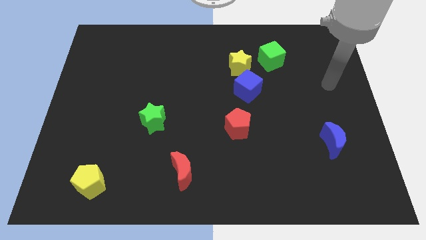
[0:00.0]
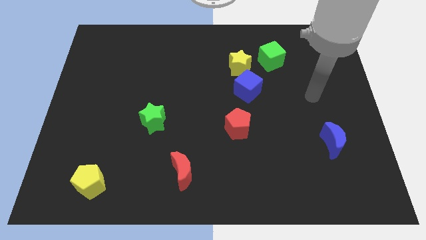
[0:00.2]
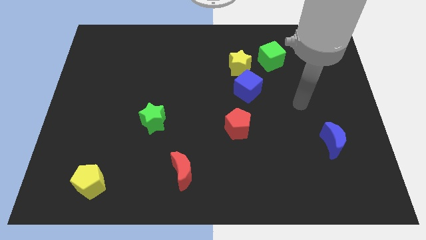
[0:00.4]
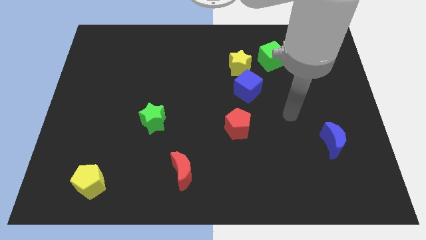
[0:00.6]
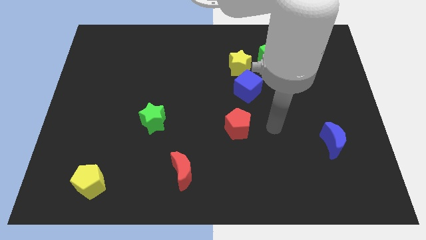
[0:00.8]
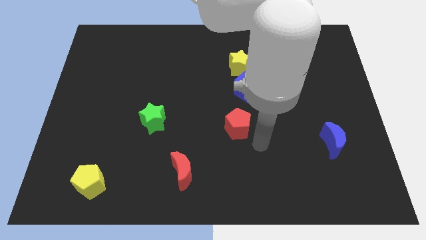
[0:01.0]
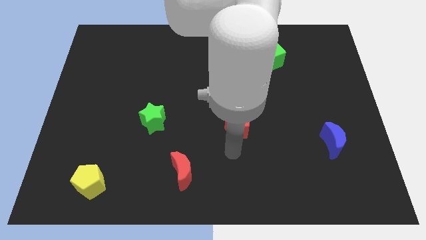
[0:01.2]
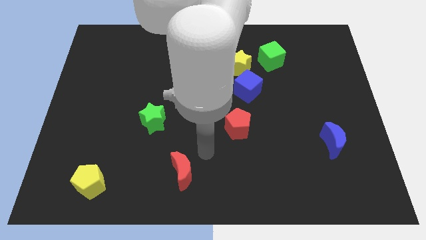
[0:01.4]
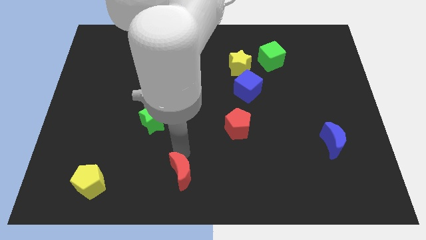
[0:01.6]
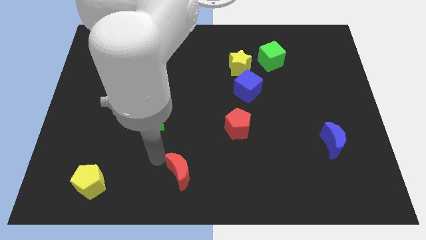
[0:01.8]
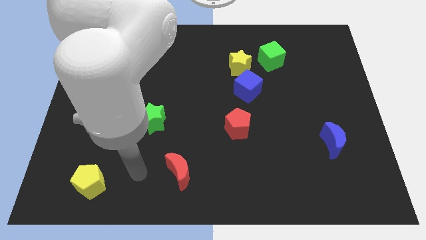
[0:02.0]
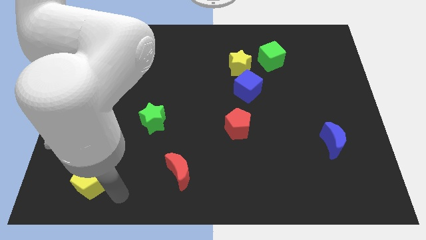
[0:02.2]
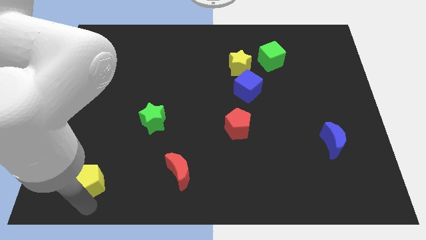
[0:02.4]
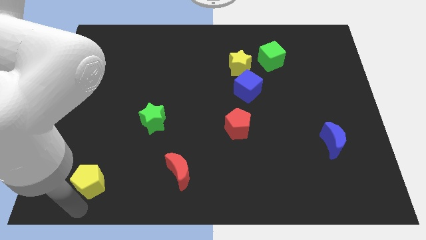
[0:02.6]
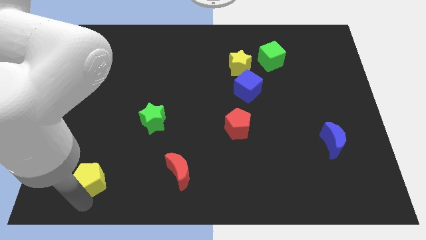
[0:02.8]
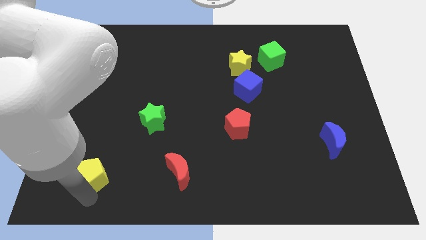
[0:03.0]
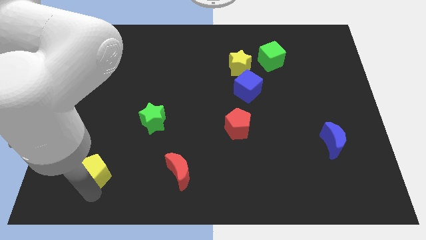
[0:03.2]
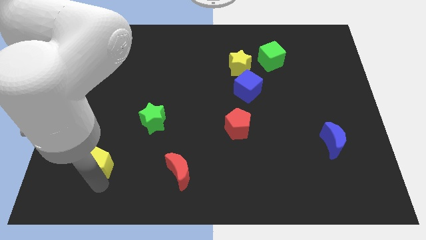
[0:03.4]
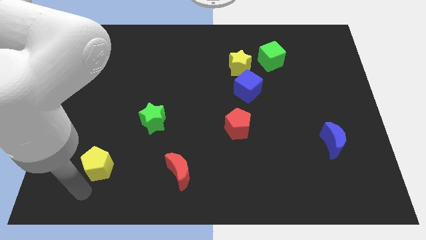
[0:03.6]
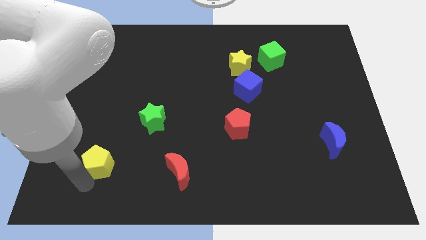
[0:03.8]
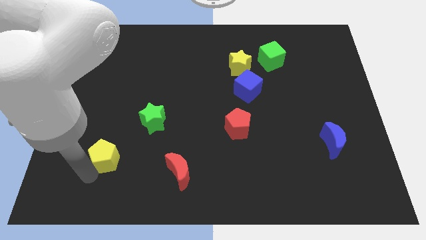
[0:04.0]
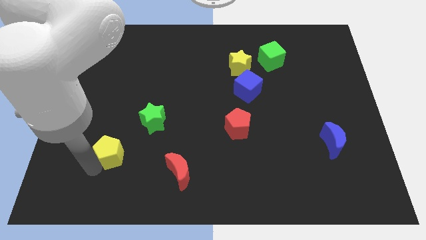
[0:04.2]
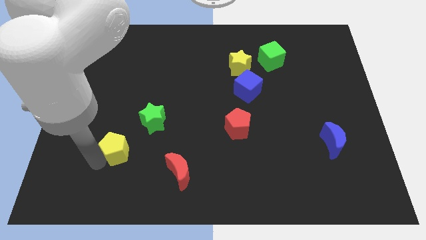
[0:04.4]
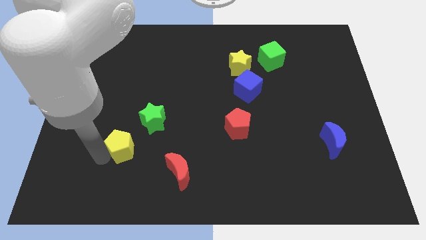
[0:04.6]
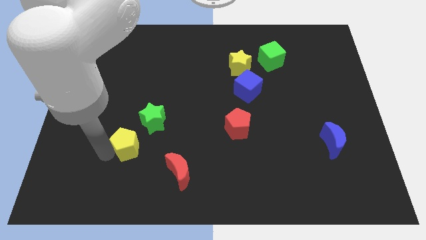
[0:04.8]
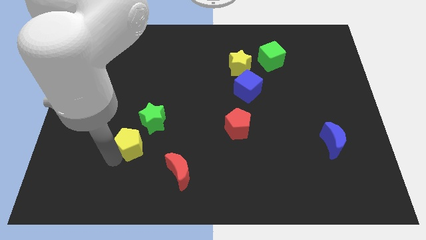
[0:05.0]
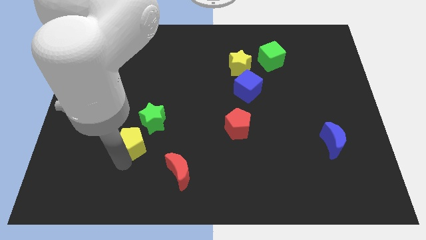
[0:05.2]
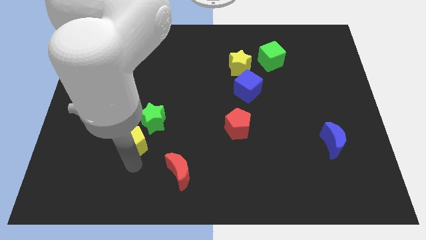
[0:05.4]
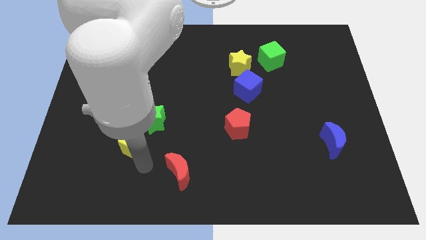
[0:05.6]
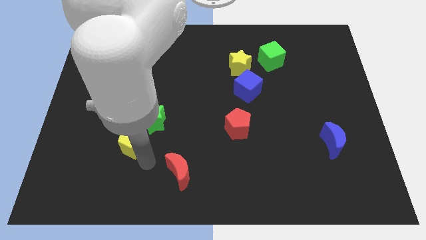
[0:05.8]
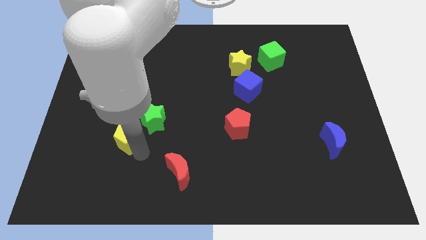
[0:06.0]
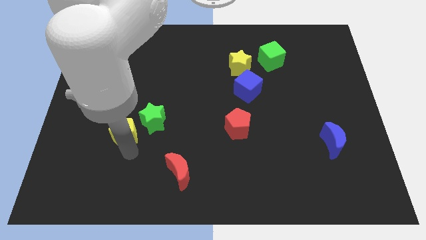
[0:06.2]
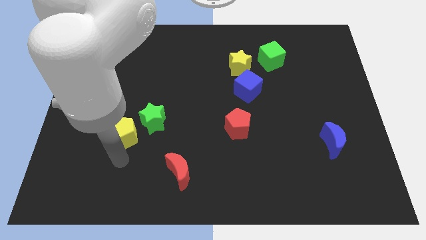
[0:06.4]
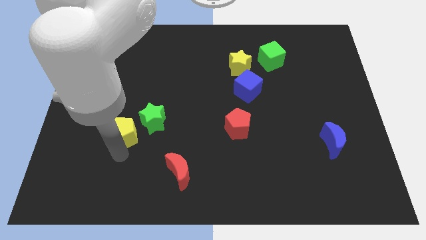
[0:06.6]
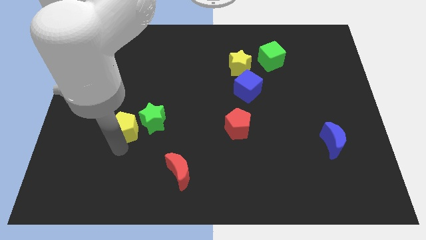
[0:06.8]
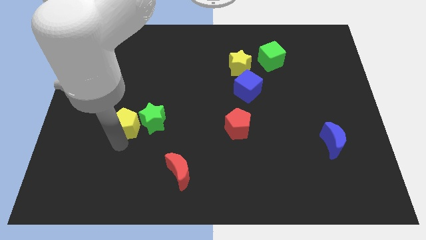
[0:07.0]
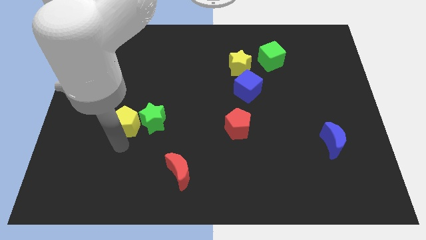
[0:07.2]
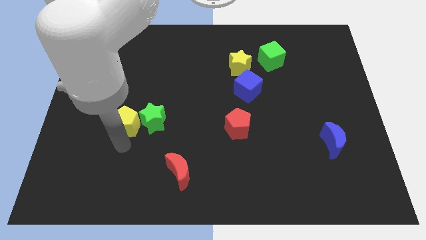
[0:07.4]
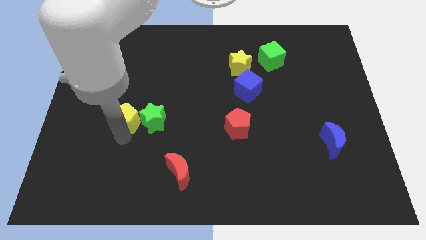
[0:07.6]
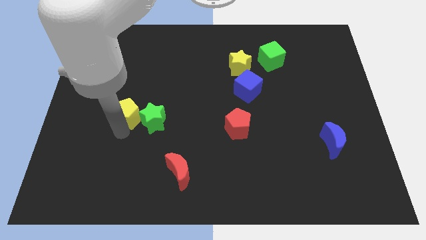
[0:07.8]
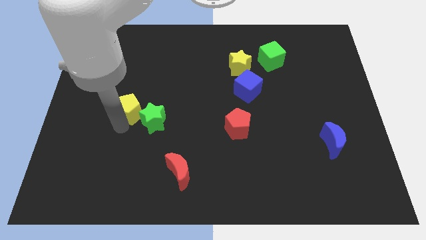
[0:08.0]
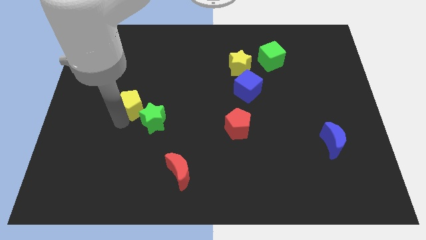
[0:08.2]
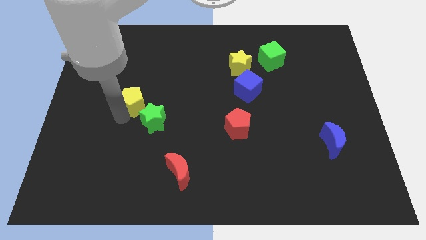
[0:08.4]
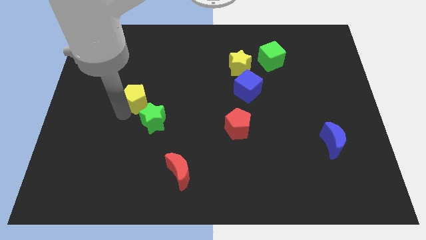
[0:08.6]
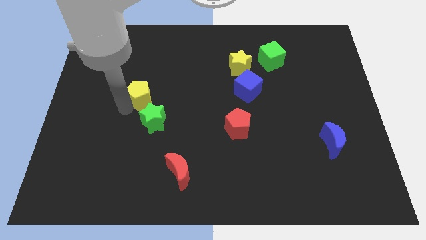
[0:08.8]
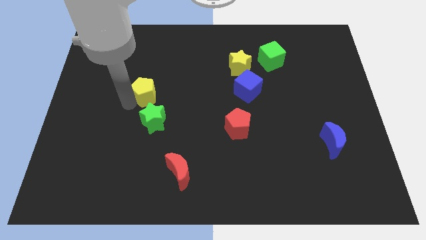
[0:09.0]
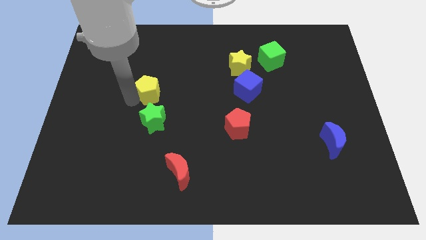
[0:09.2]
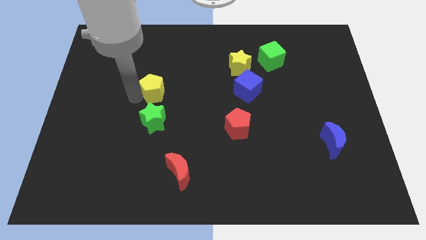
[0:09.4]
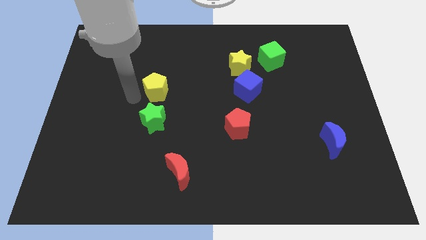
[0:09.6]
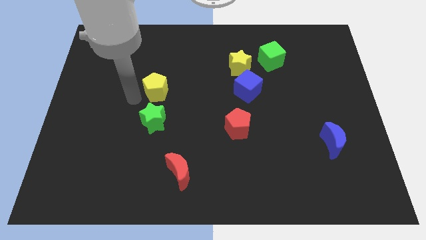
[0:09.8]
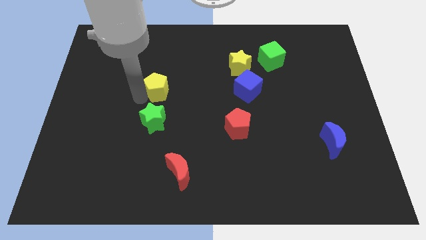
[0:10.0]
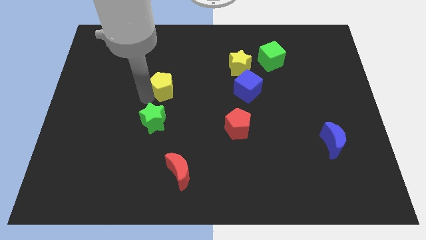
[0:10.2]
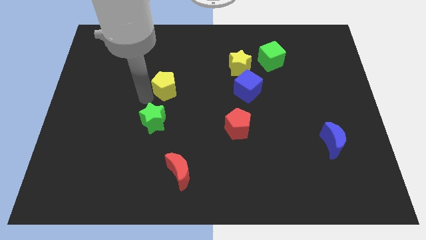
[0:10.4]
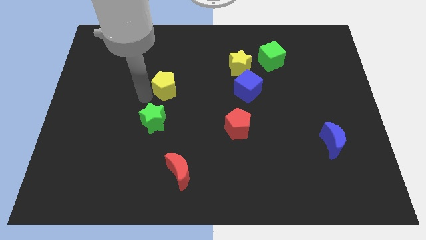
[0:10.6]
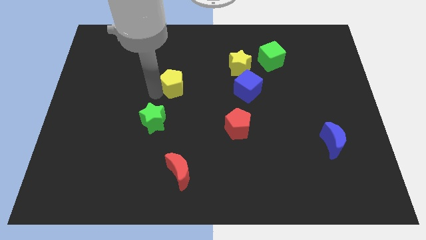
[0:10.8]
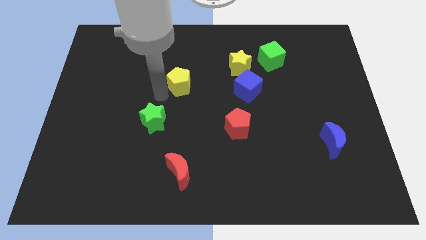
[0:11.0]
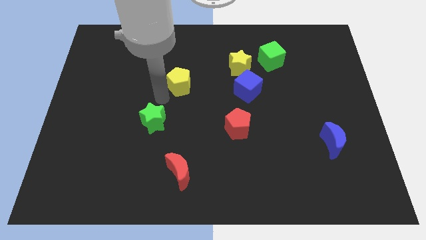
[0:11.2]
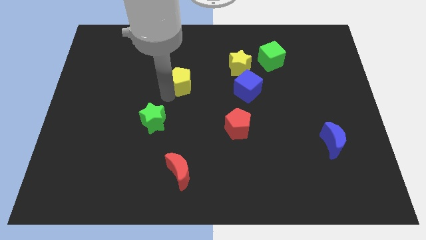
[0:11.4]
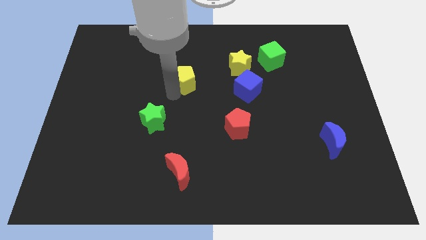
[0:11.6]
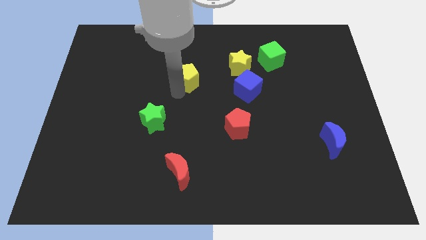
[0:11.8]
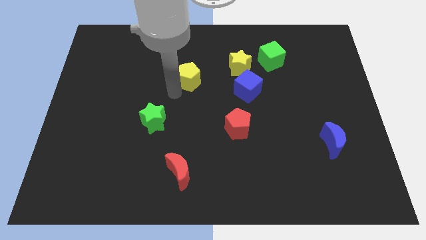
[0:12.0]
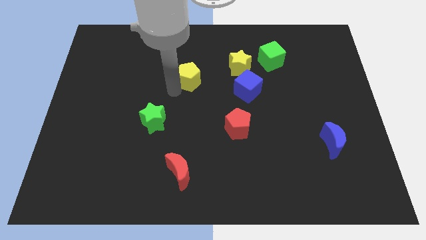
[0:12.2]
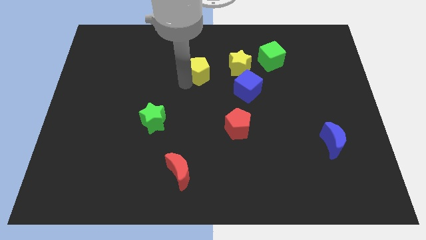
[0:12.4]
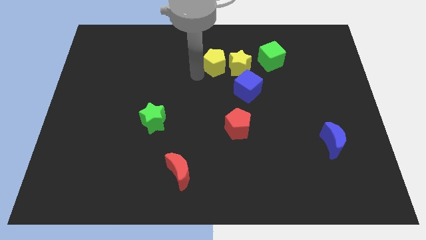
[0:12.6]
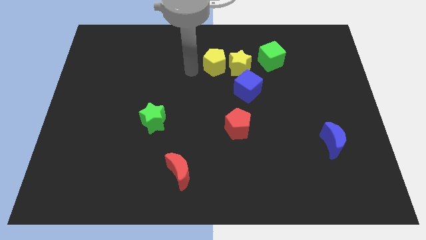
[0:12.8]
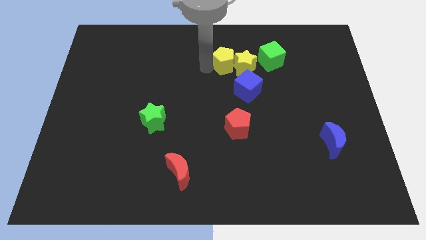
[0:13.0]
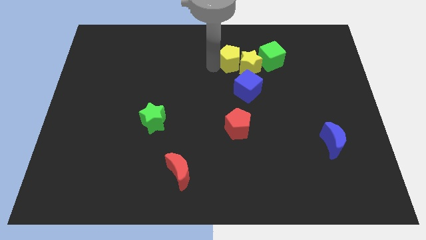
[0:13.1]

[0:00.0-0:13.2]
move the yellow pentagon to the top of the blue cube

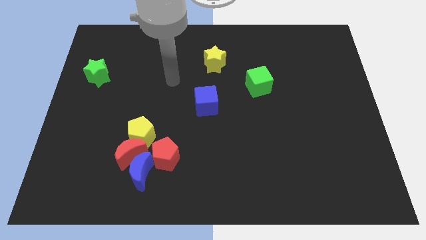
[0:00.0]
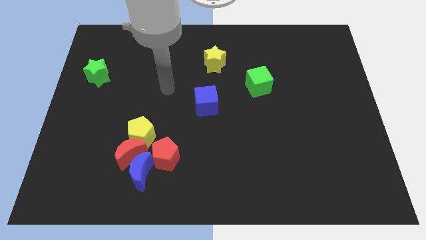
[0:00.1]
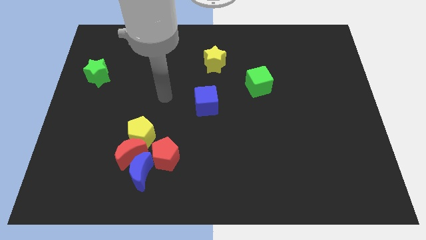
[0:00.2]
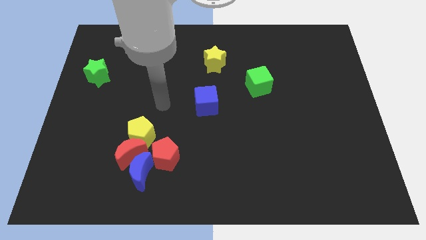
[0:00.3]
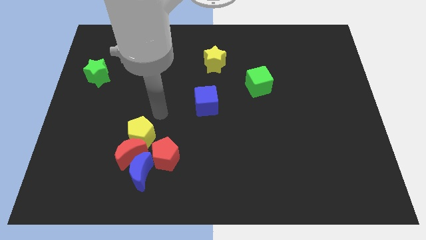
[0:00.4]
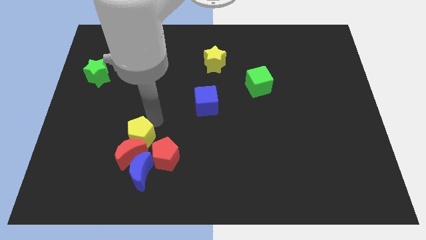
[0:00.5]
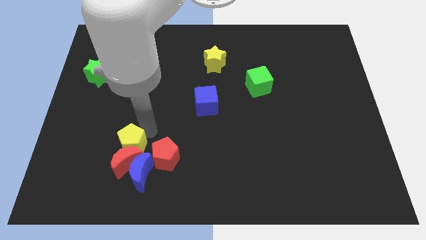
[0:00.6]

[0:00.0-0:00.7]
slide the red moon to the bottom left side of the red pentagon
